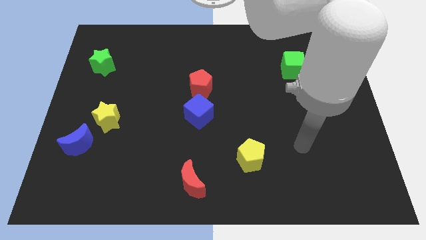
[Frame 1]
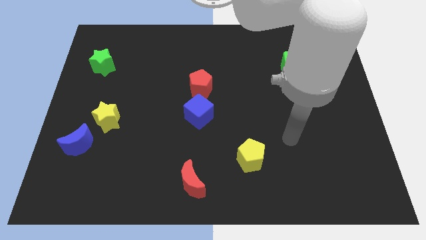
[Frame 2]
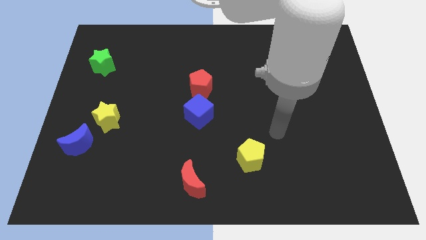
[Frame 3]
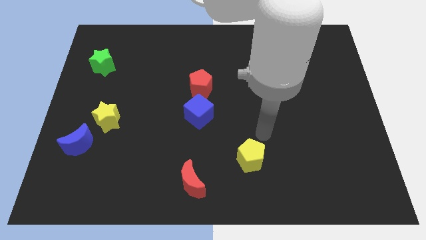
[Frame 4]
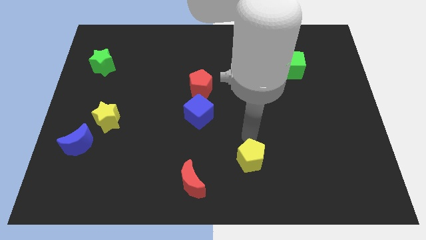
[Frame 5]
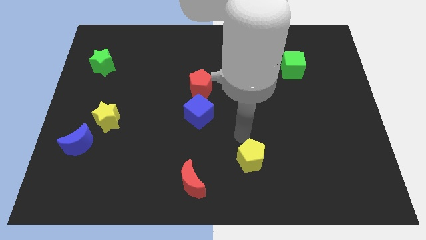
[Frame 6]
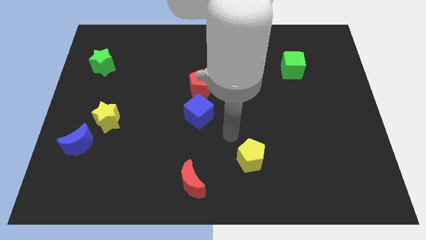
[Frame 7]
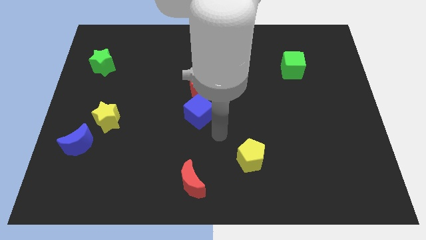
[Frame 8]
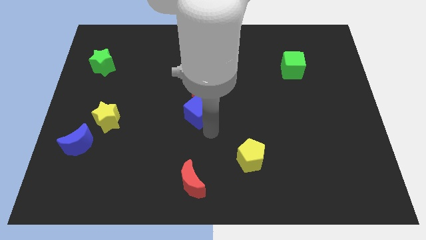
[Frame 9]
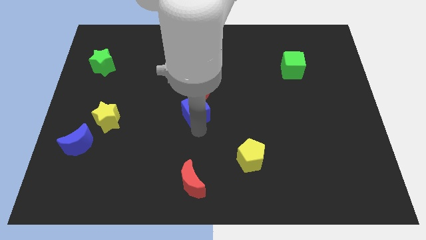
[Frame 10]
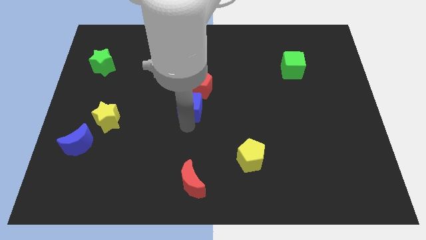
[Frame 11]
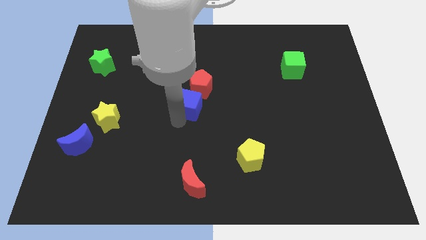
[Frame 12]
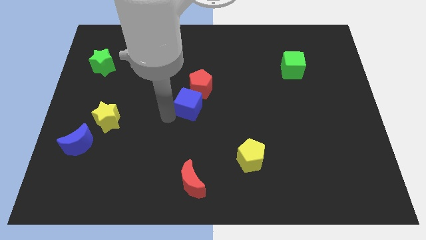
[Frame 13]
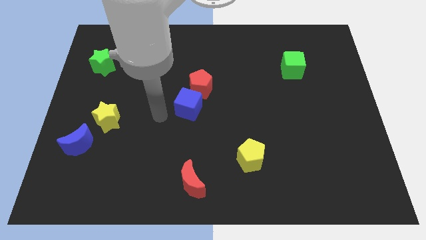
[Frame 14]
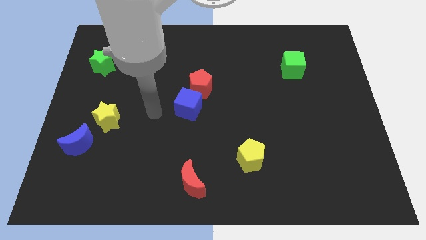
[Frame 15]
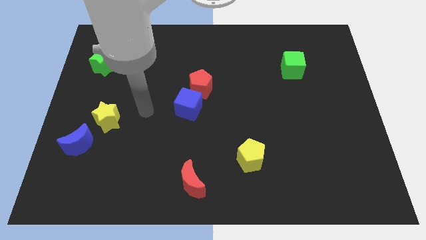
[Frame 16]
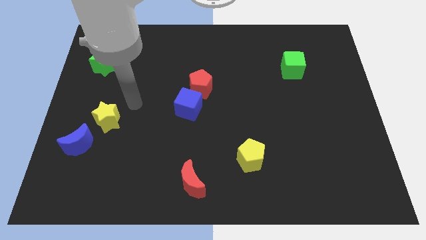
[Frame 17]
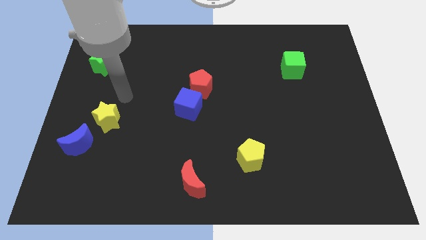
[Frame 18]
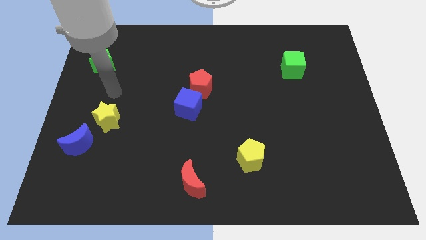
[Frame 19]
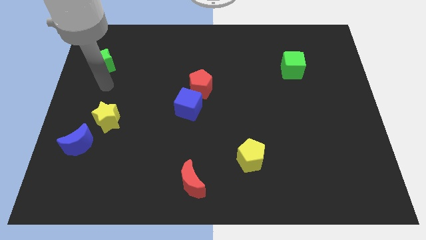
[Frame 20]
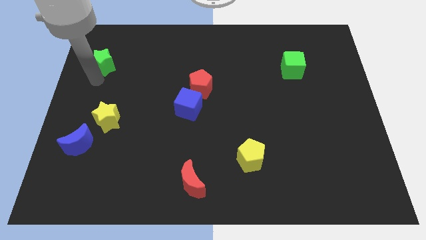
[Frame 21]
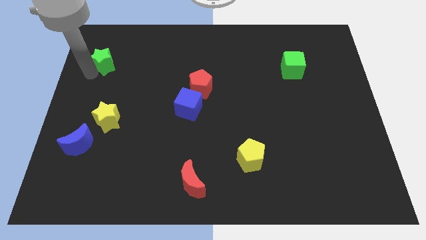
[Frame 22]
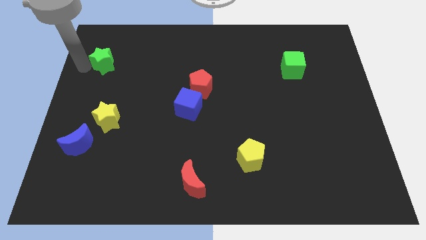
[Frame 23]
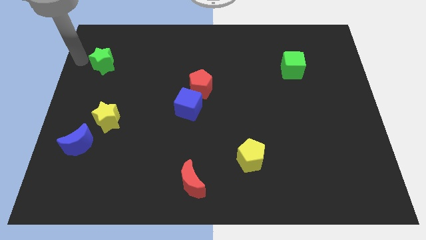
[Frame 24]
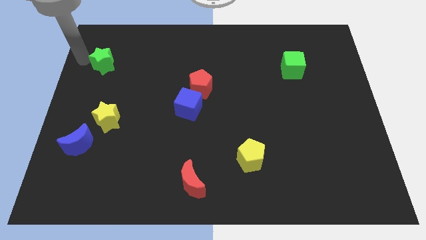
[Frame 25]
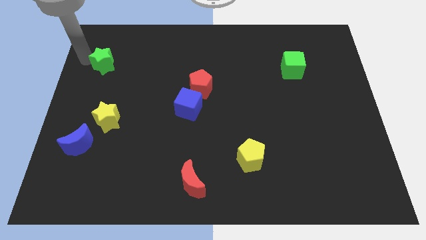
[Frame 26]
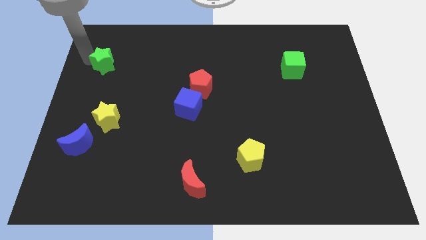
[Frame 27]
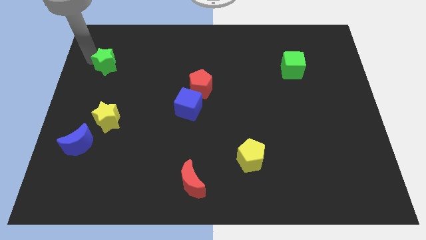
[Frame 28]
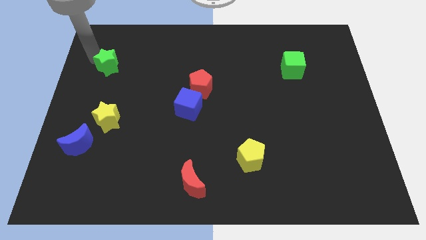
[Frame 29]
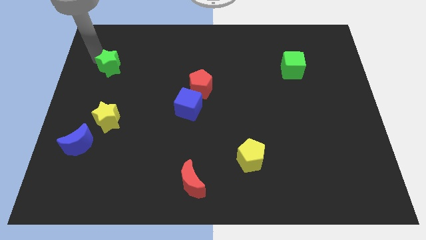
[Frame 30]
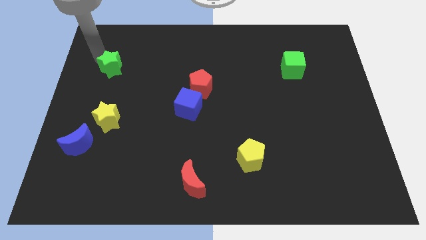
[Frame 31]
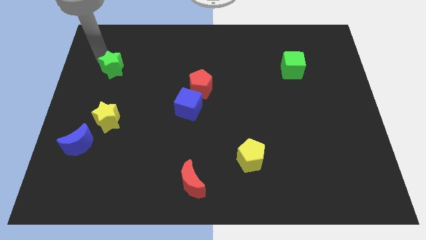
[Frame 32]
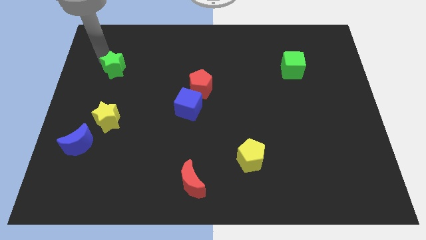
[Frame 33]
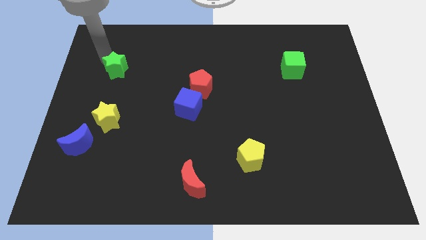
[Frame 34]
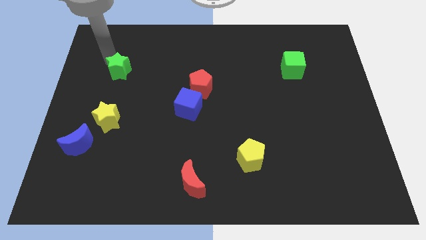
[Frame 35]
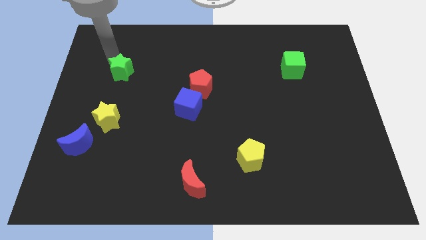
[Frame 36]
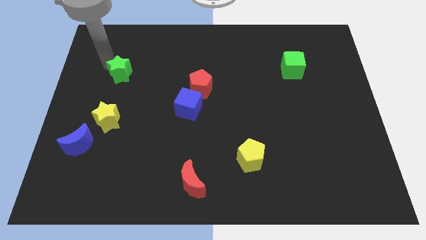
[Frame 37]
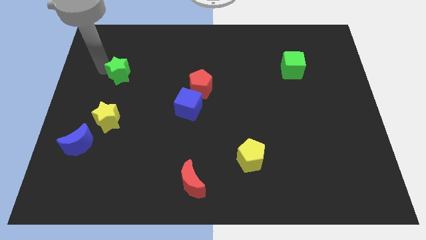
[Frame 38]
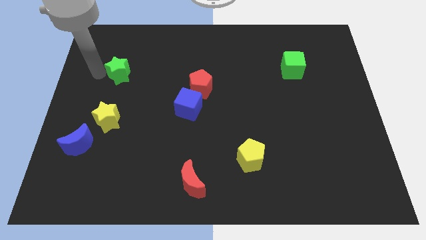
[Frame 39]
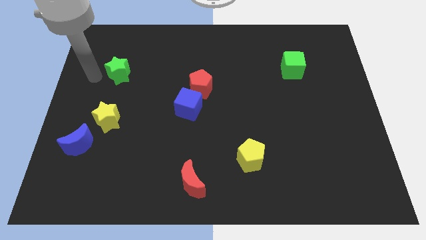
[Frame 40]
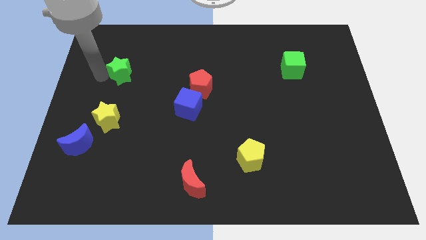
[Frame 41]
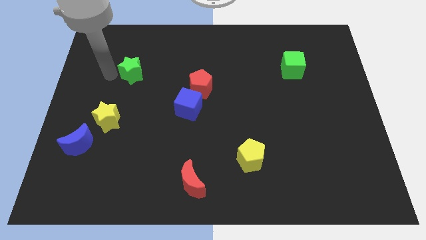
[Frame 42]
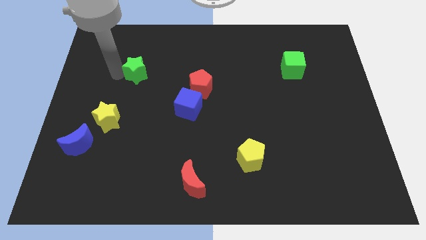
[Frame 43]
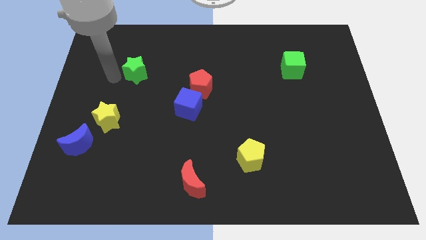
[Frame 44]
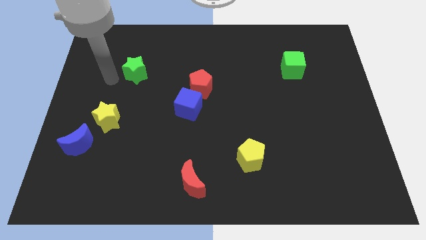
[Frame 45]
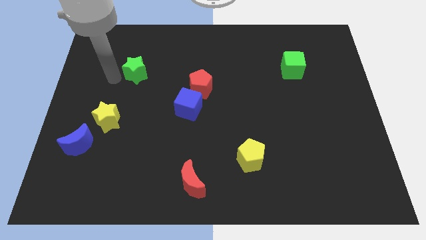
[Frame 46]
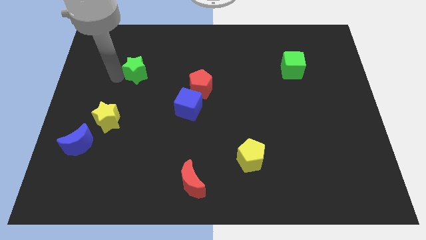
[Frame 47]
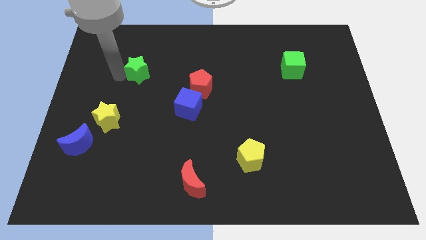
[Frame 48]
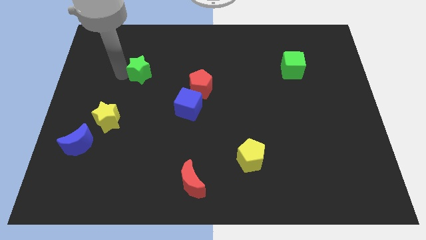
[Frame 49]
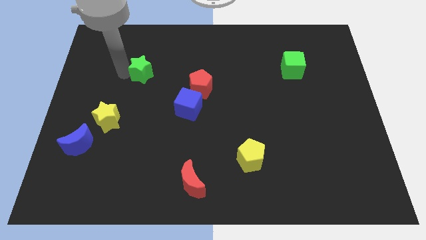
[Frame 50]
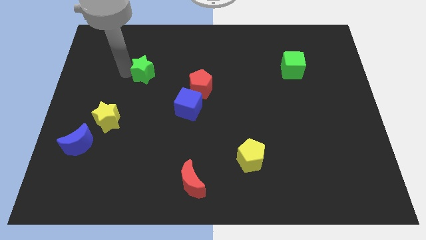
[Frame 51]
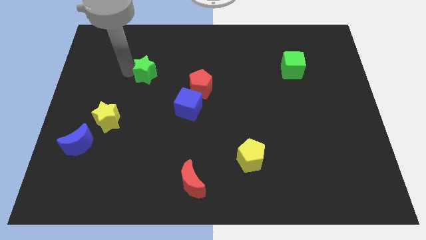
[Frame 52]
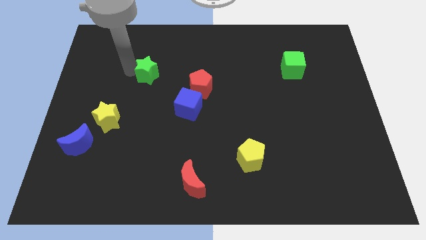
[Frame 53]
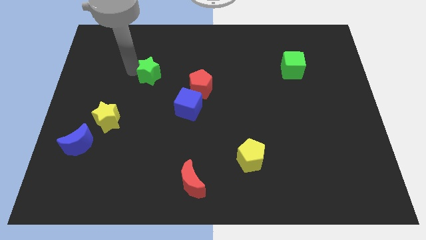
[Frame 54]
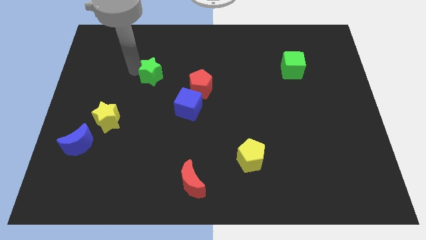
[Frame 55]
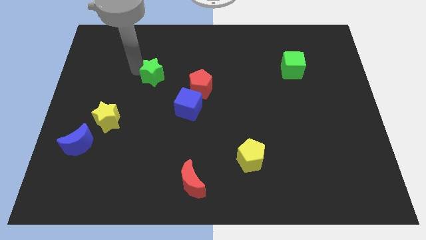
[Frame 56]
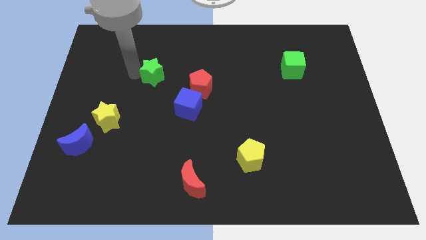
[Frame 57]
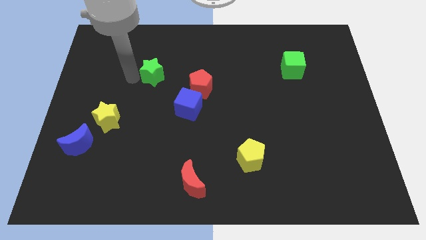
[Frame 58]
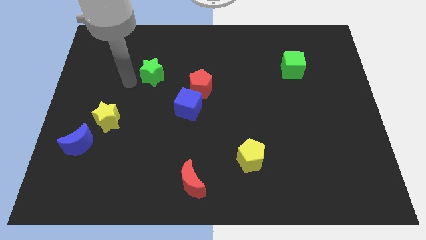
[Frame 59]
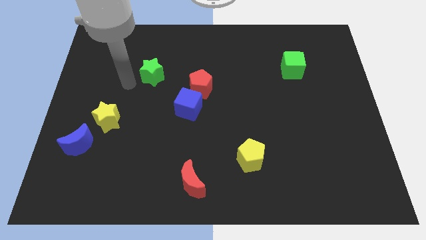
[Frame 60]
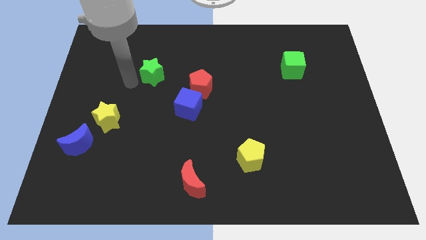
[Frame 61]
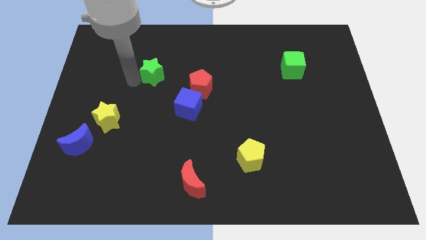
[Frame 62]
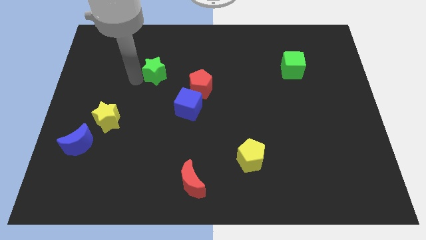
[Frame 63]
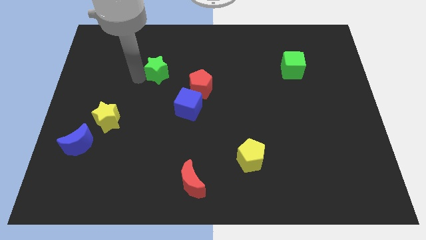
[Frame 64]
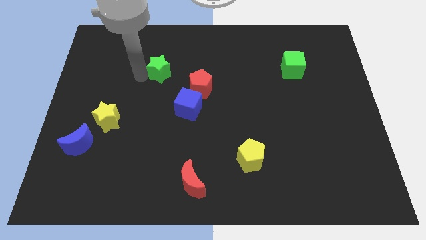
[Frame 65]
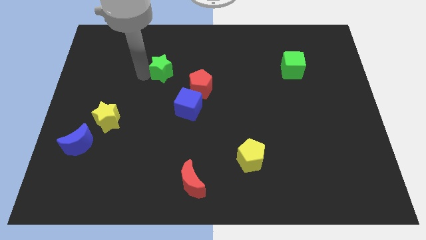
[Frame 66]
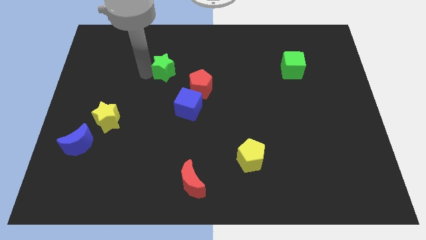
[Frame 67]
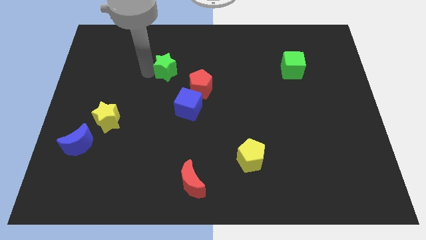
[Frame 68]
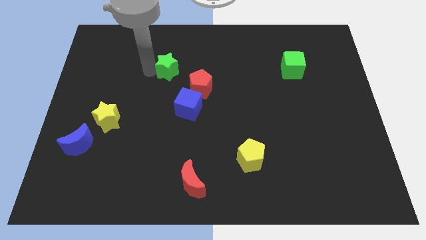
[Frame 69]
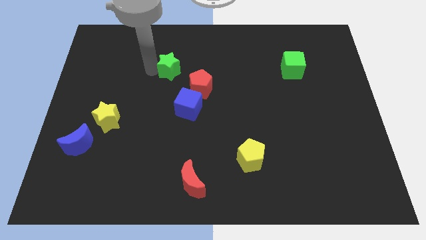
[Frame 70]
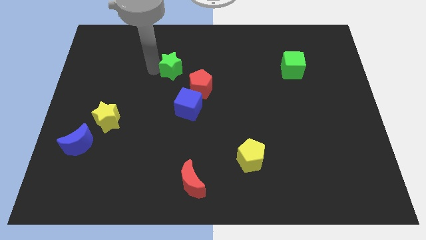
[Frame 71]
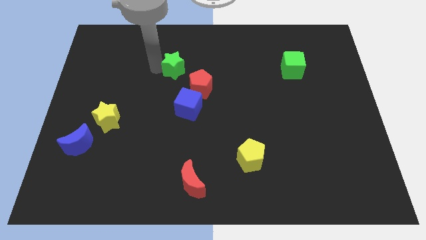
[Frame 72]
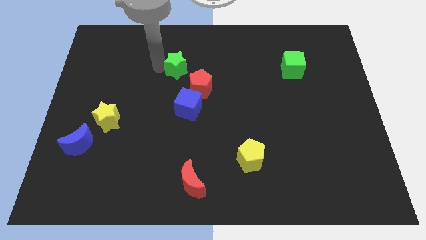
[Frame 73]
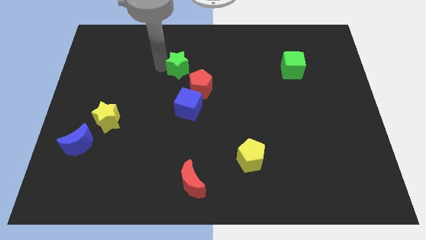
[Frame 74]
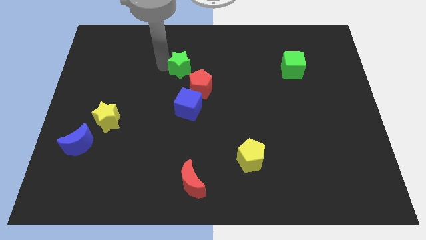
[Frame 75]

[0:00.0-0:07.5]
push the green star to the right
